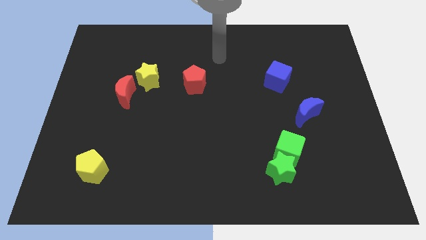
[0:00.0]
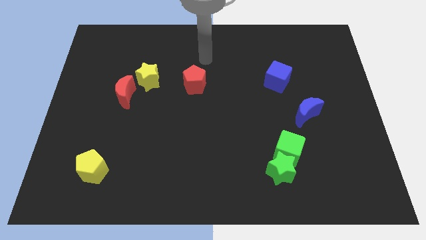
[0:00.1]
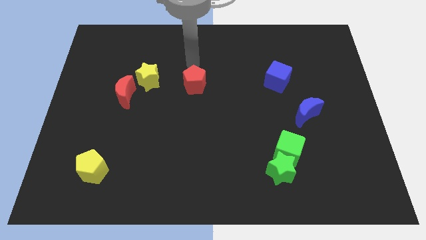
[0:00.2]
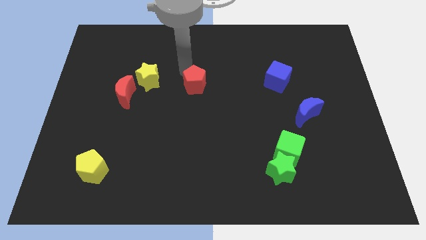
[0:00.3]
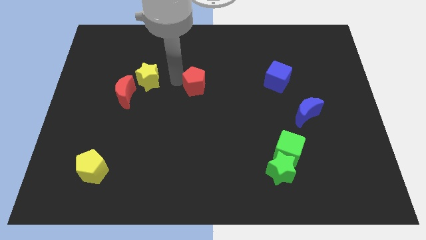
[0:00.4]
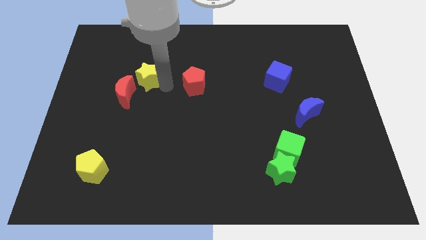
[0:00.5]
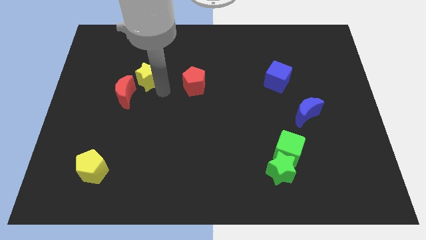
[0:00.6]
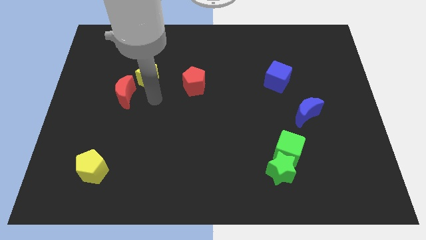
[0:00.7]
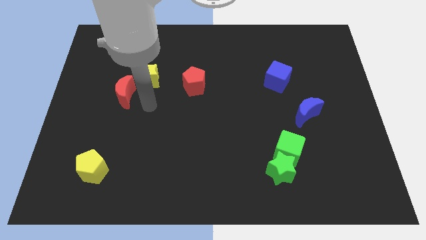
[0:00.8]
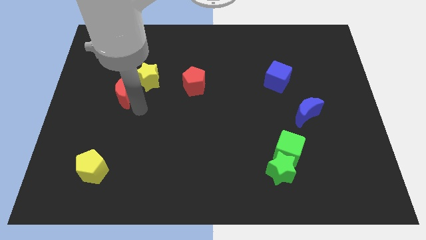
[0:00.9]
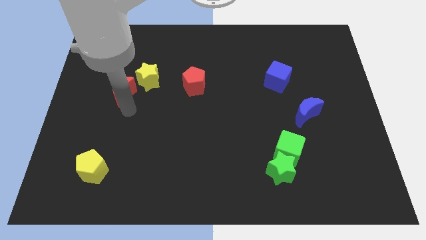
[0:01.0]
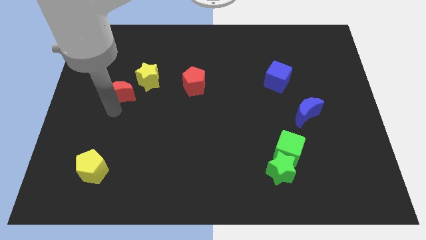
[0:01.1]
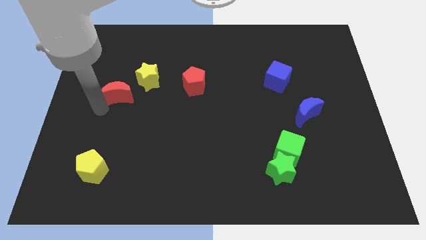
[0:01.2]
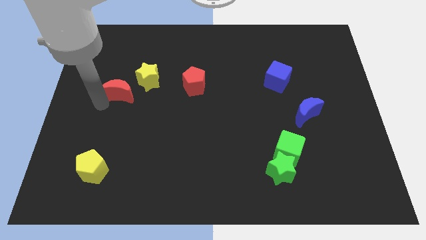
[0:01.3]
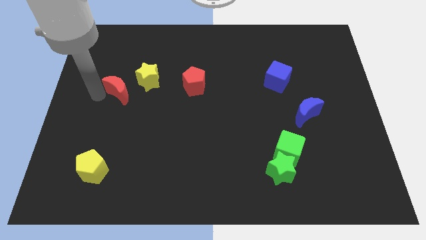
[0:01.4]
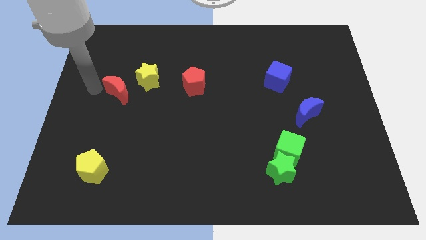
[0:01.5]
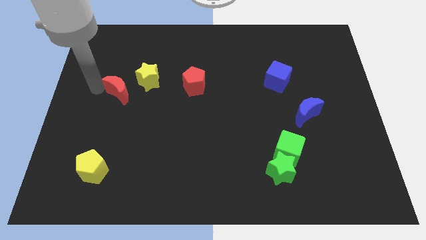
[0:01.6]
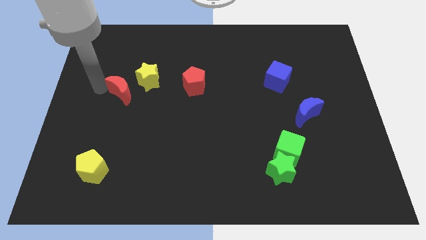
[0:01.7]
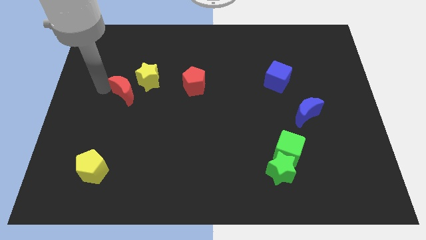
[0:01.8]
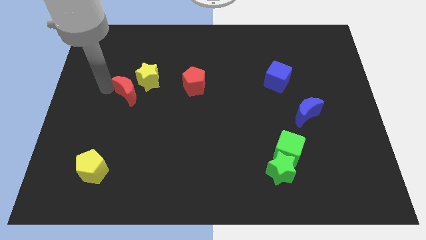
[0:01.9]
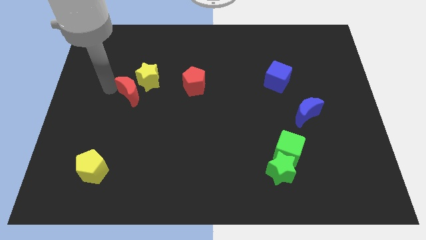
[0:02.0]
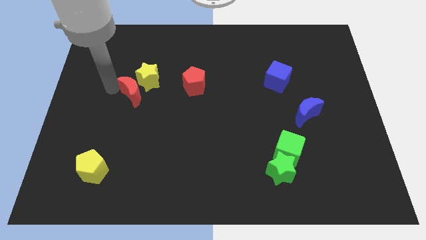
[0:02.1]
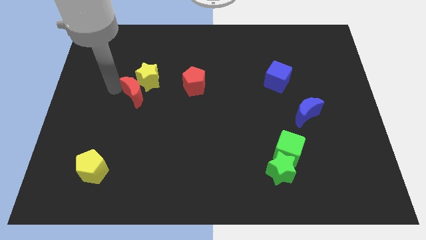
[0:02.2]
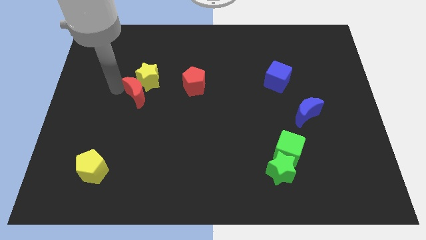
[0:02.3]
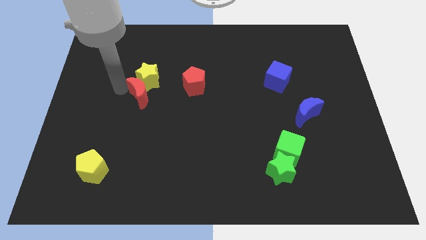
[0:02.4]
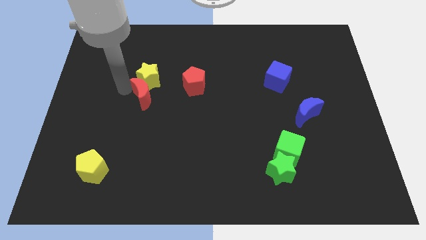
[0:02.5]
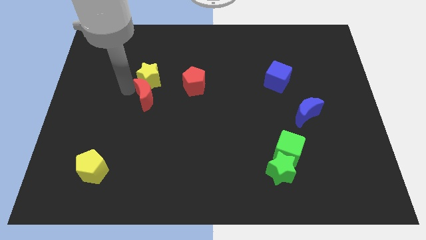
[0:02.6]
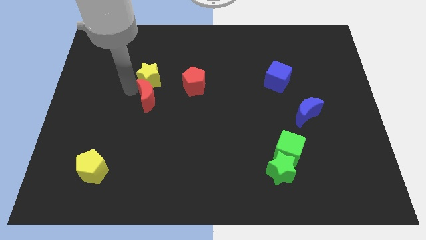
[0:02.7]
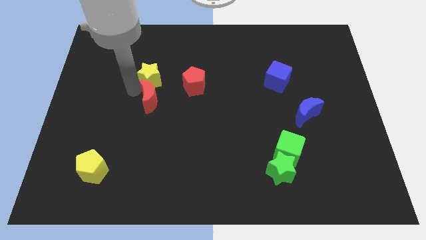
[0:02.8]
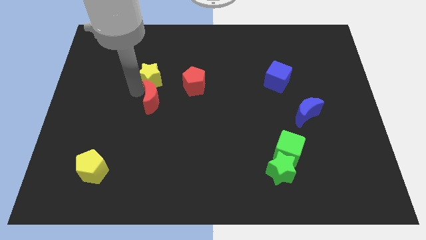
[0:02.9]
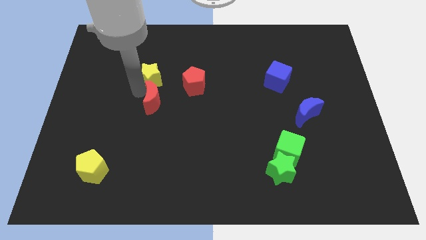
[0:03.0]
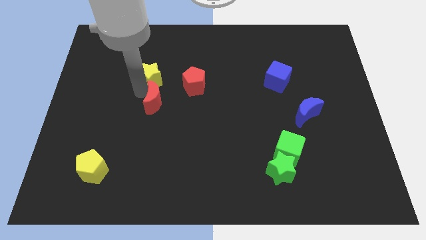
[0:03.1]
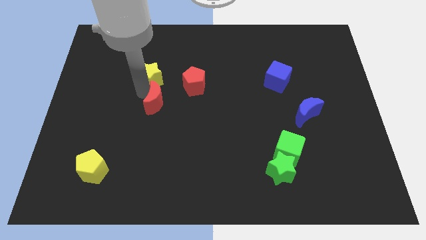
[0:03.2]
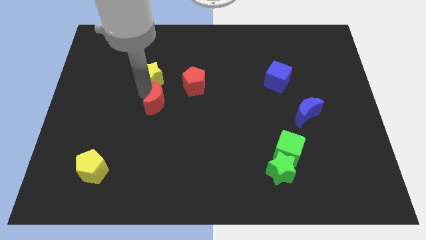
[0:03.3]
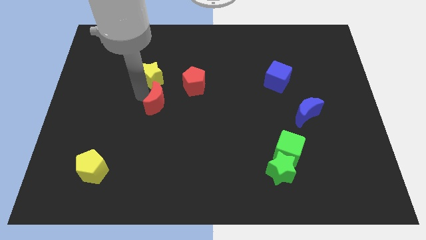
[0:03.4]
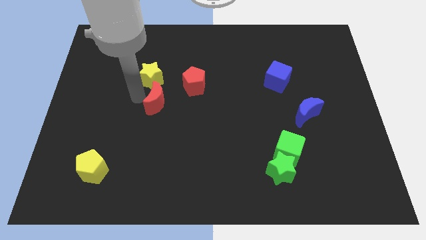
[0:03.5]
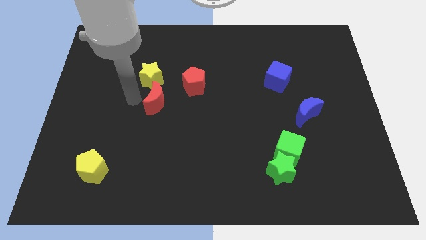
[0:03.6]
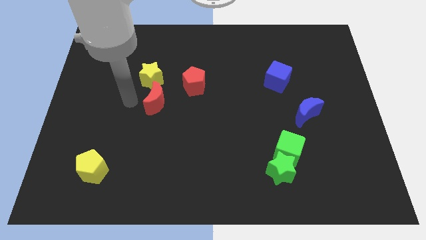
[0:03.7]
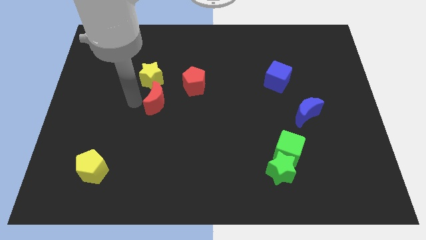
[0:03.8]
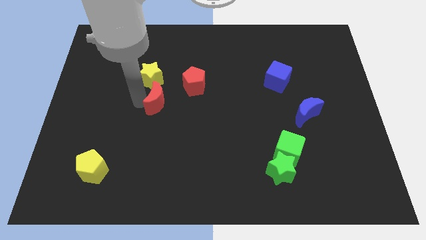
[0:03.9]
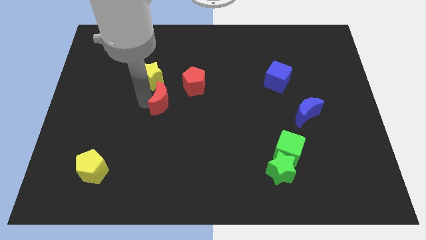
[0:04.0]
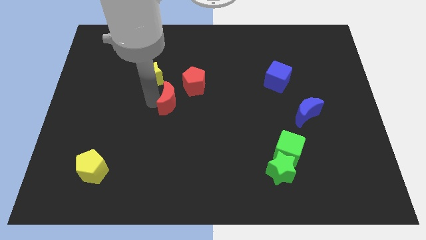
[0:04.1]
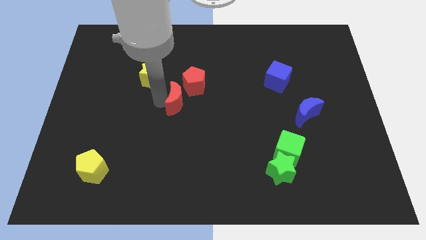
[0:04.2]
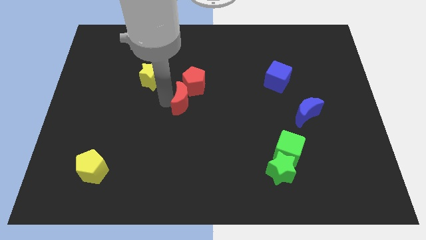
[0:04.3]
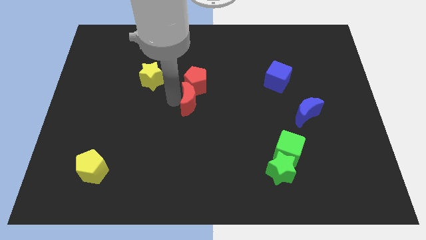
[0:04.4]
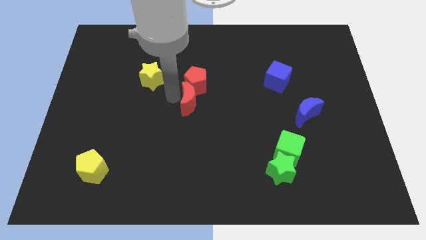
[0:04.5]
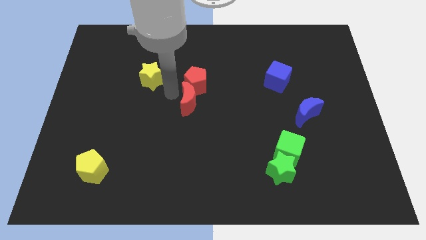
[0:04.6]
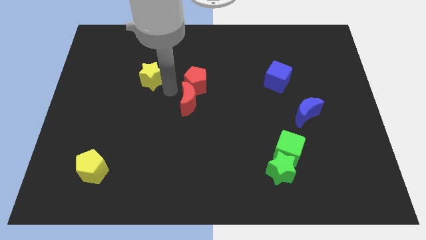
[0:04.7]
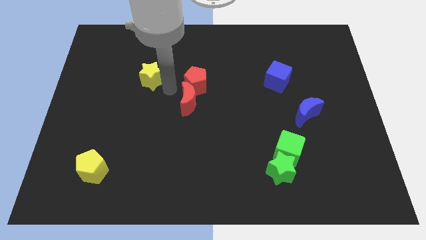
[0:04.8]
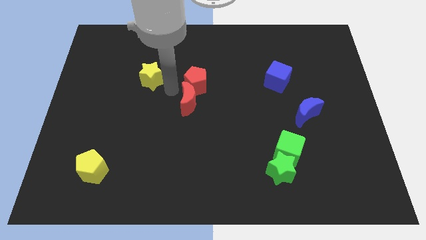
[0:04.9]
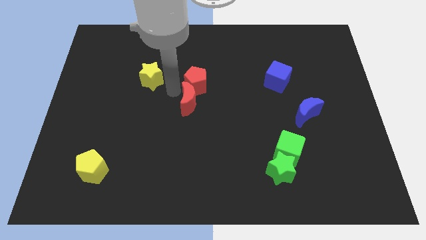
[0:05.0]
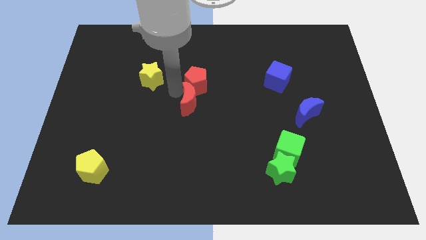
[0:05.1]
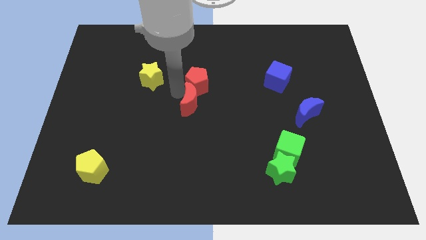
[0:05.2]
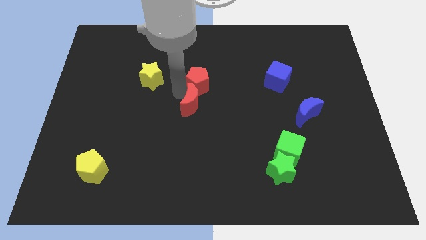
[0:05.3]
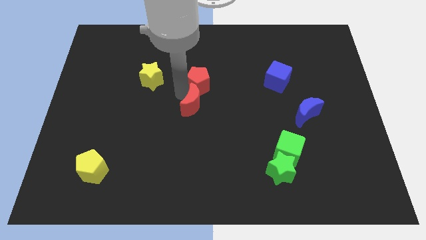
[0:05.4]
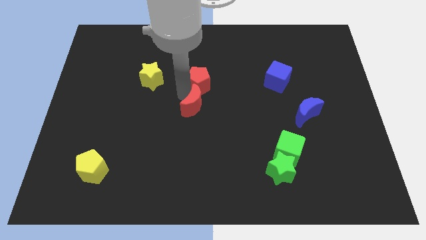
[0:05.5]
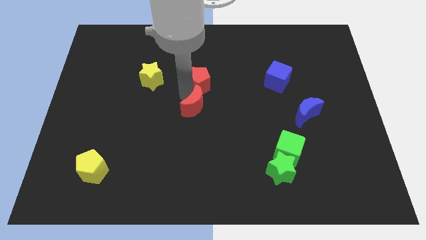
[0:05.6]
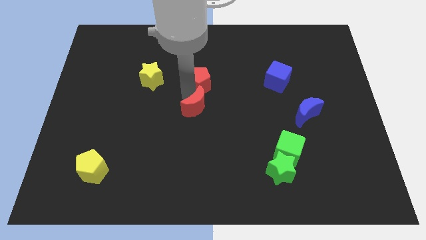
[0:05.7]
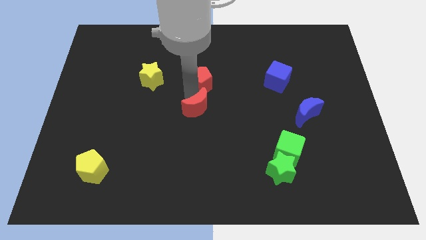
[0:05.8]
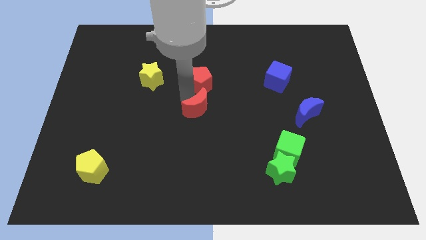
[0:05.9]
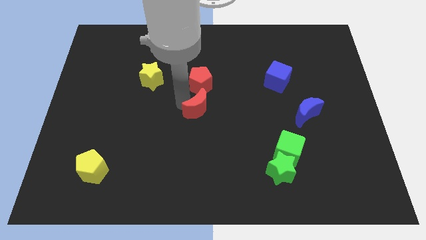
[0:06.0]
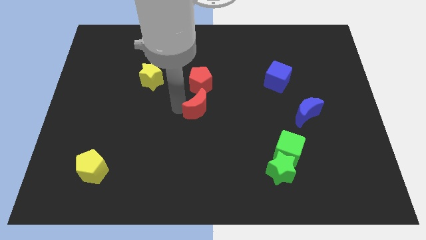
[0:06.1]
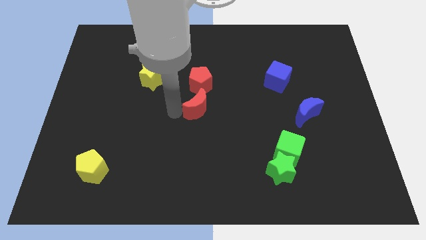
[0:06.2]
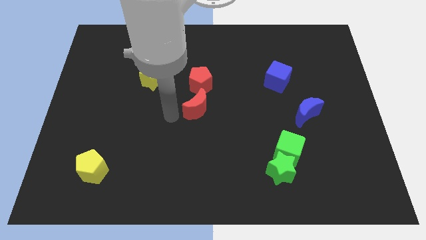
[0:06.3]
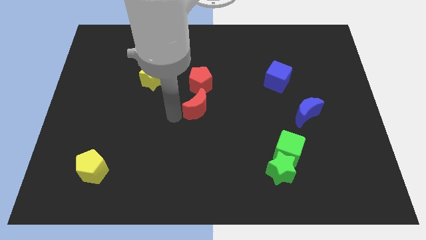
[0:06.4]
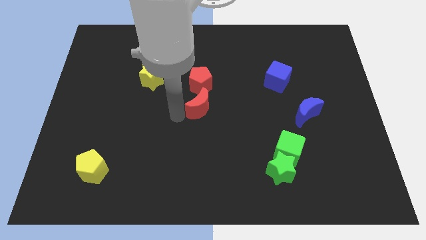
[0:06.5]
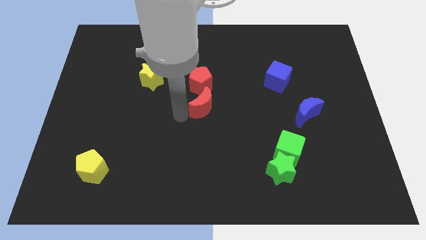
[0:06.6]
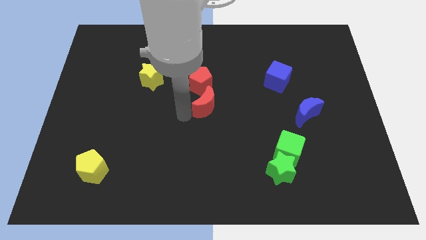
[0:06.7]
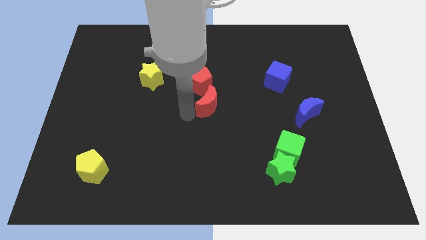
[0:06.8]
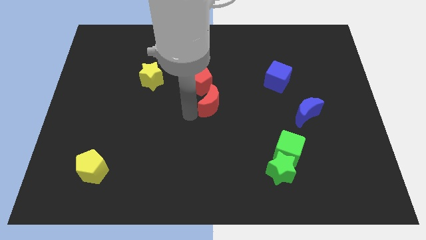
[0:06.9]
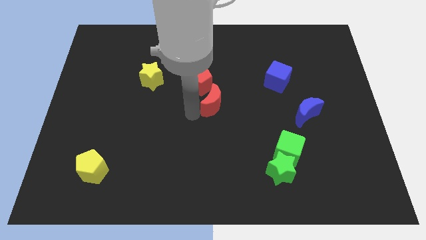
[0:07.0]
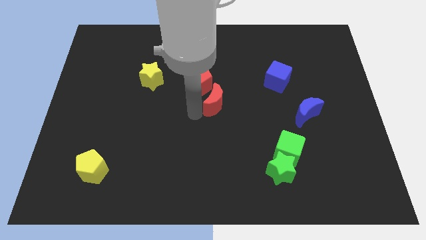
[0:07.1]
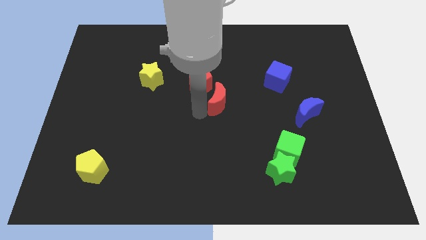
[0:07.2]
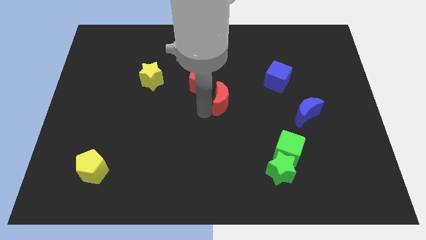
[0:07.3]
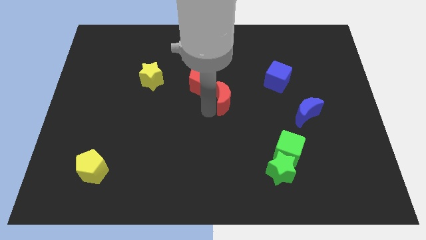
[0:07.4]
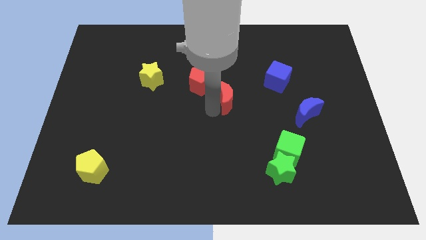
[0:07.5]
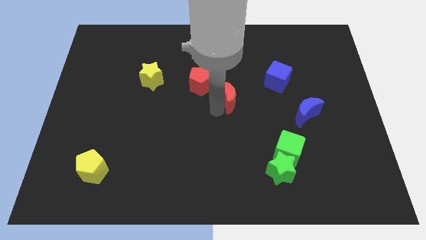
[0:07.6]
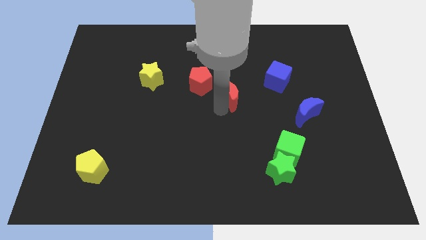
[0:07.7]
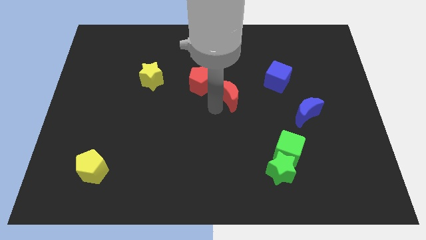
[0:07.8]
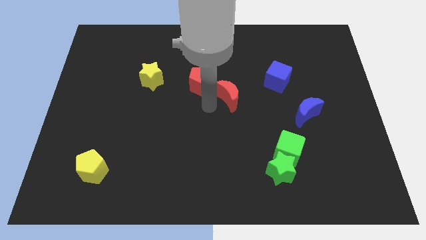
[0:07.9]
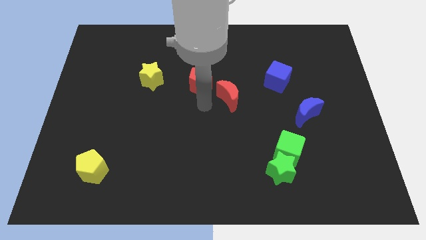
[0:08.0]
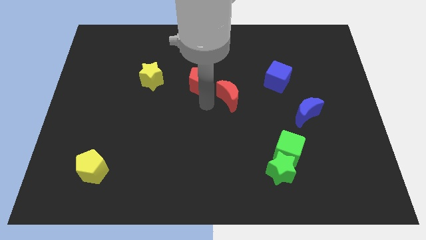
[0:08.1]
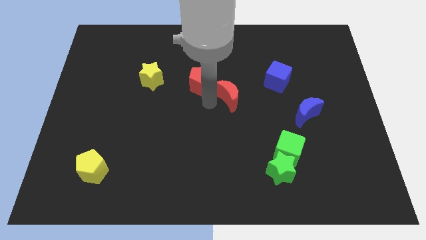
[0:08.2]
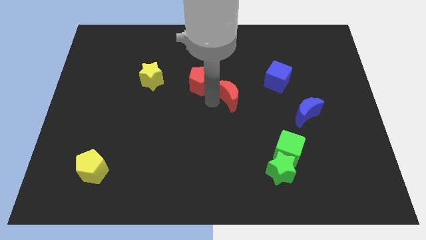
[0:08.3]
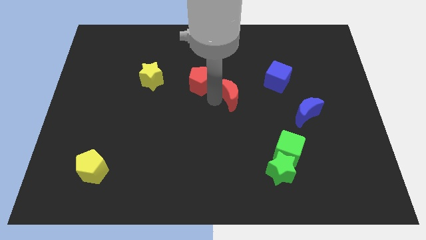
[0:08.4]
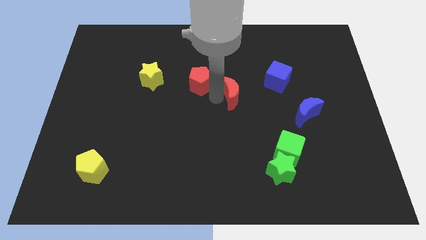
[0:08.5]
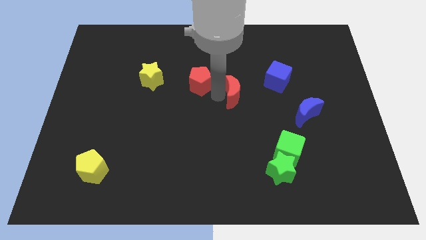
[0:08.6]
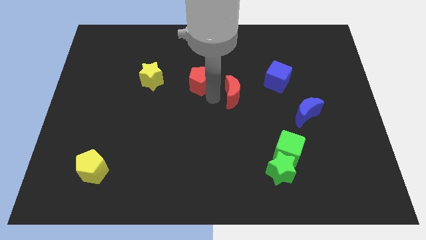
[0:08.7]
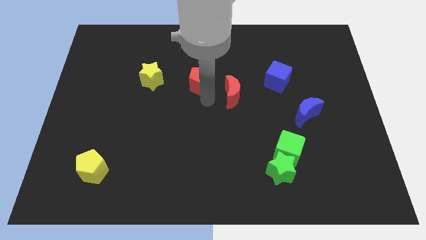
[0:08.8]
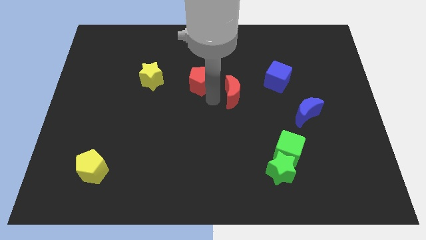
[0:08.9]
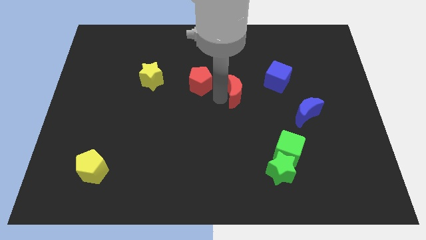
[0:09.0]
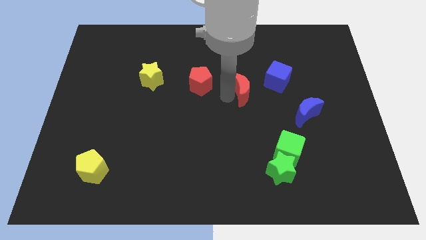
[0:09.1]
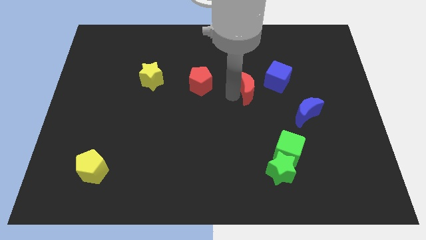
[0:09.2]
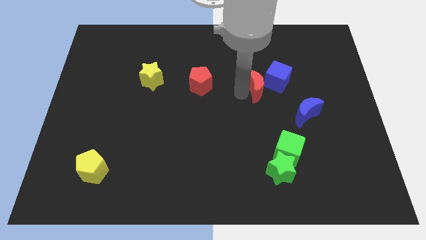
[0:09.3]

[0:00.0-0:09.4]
push the red moon next to the blue cube
